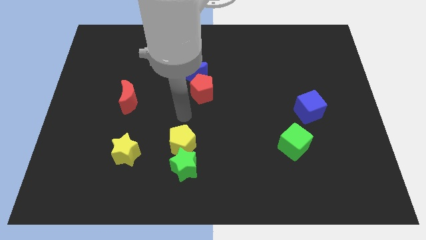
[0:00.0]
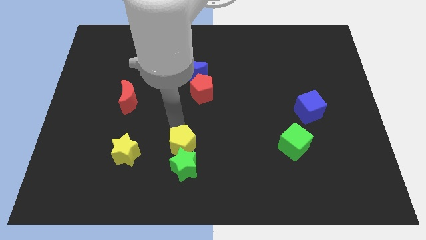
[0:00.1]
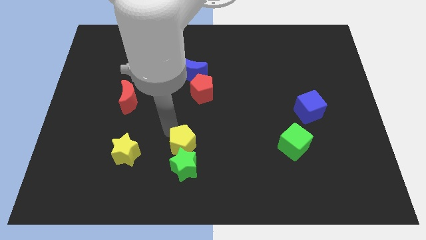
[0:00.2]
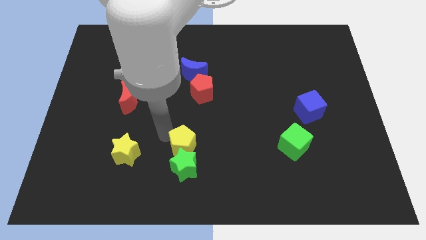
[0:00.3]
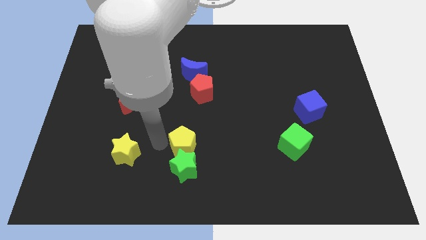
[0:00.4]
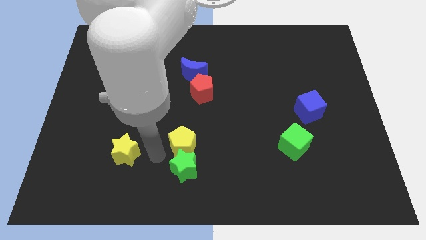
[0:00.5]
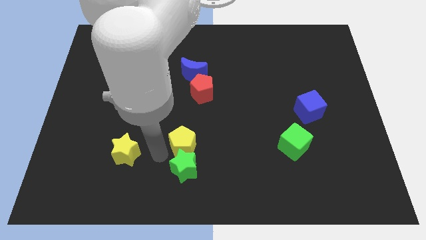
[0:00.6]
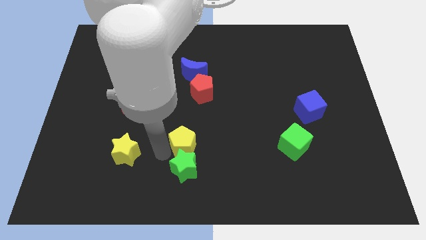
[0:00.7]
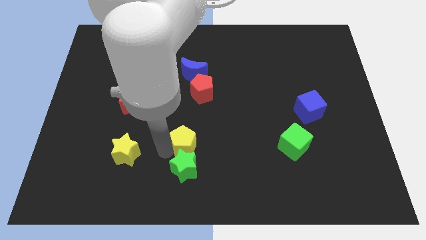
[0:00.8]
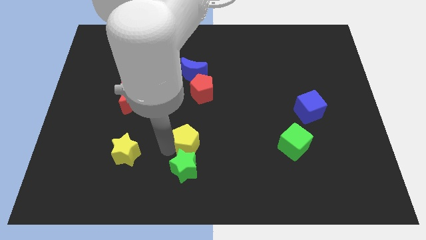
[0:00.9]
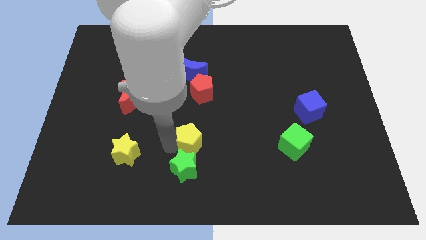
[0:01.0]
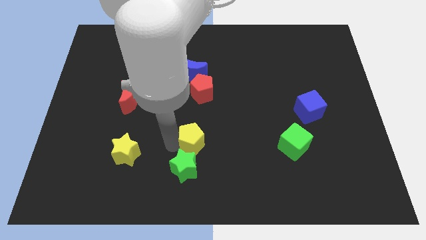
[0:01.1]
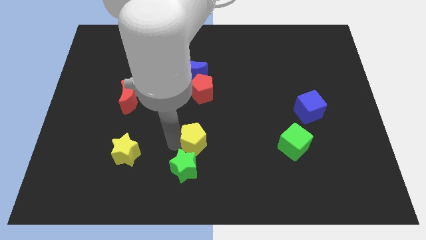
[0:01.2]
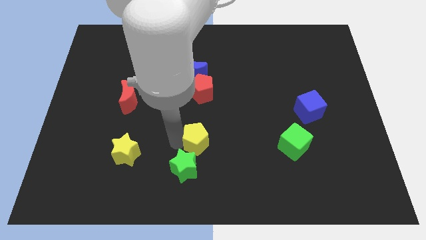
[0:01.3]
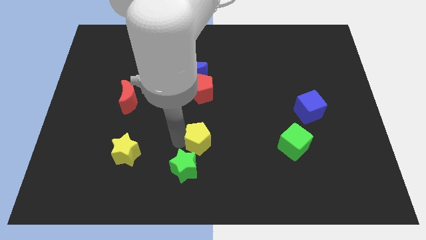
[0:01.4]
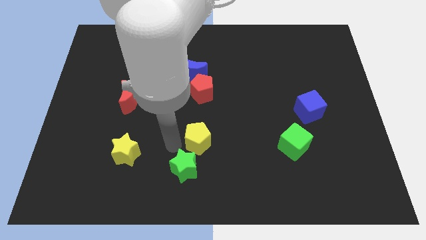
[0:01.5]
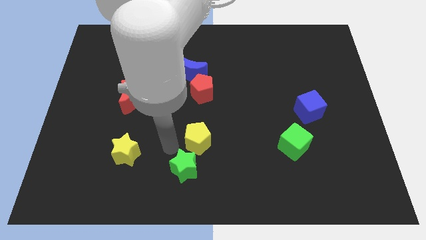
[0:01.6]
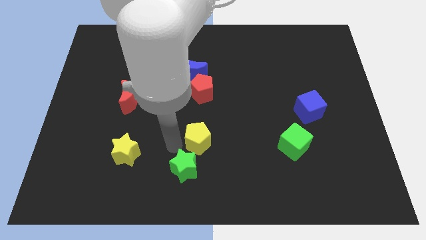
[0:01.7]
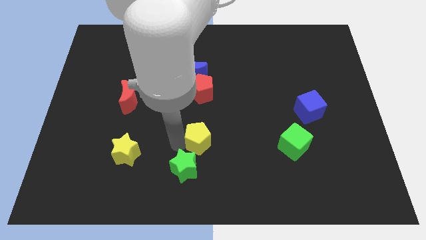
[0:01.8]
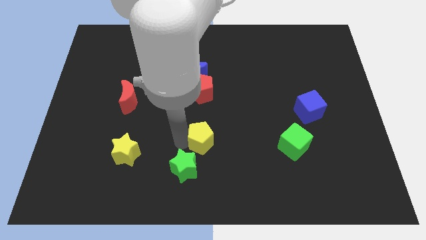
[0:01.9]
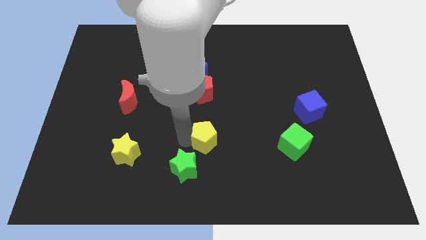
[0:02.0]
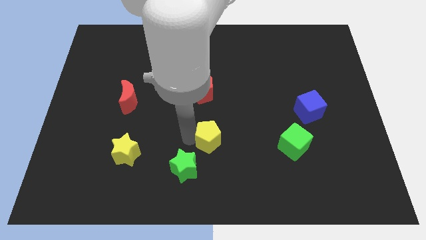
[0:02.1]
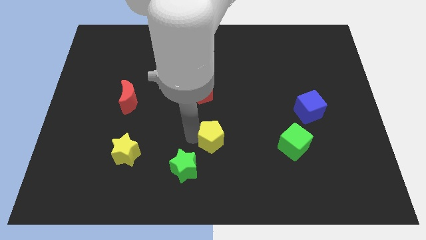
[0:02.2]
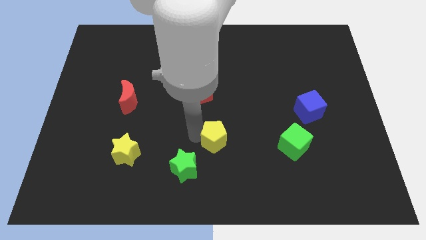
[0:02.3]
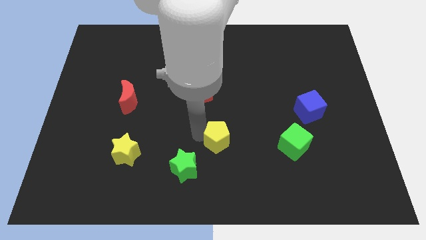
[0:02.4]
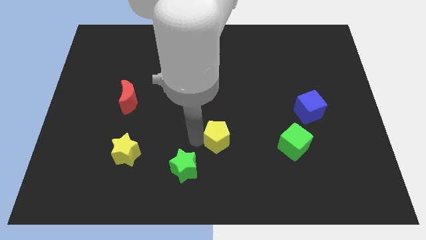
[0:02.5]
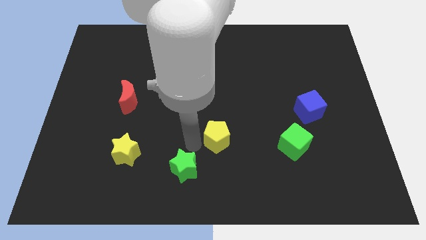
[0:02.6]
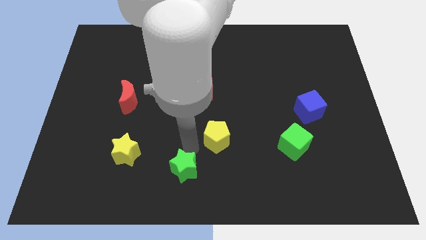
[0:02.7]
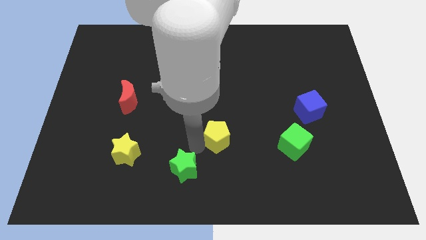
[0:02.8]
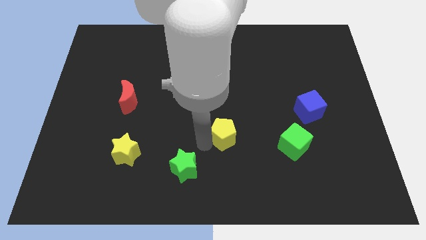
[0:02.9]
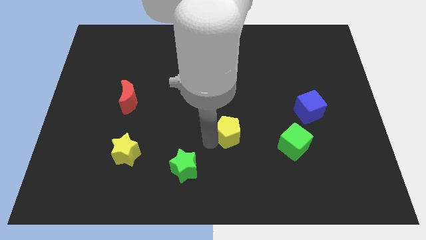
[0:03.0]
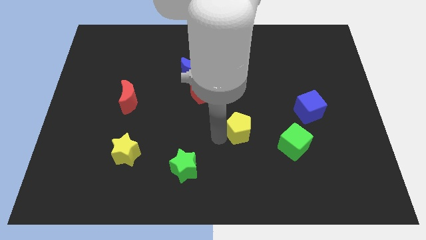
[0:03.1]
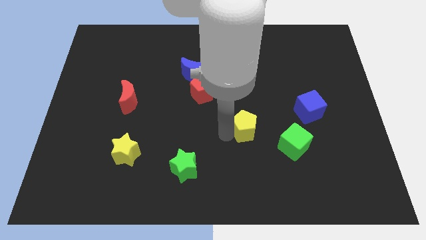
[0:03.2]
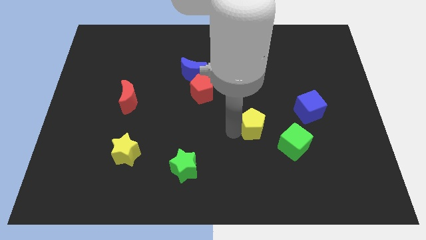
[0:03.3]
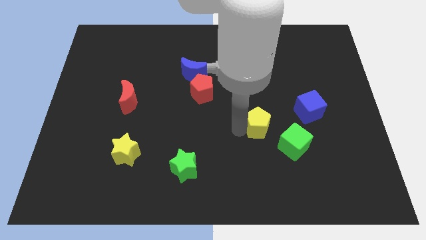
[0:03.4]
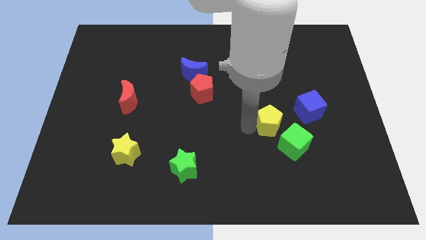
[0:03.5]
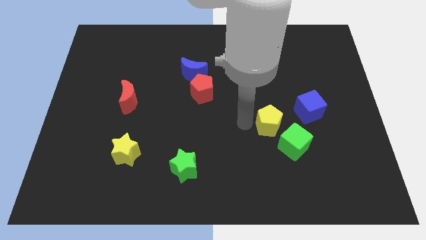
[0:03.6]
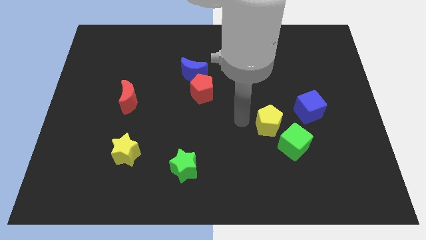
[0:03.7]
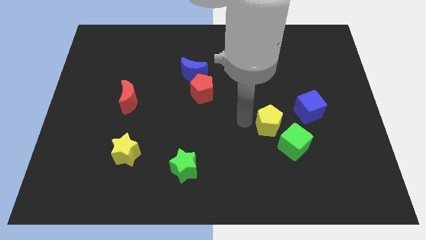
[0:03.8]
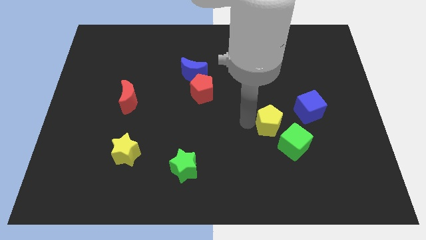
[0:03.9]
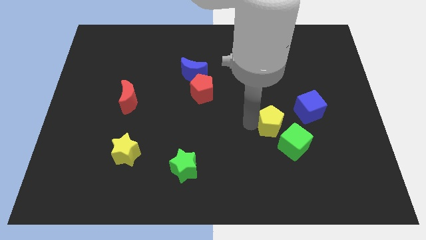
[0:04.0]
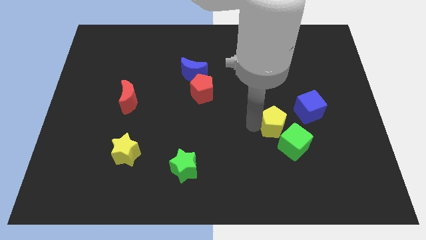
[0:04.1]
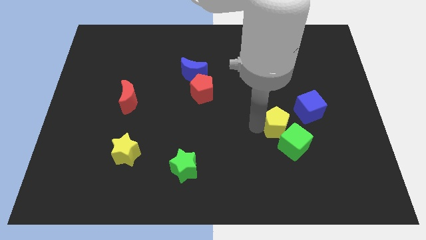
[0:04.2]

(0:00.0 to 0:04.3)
move the yellow pentagon right

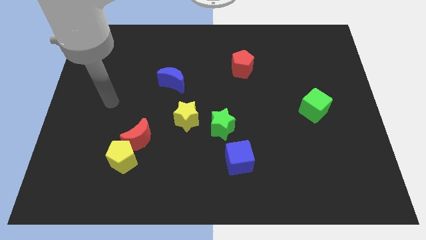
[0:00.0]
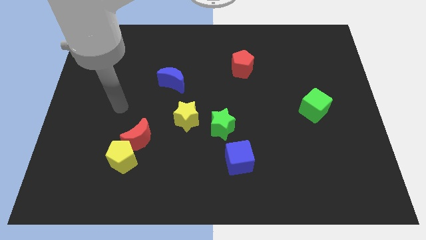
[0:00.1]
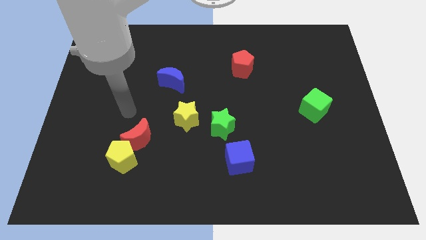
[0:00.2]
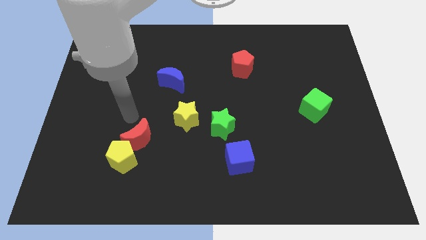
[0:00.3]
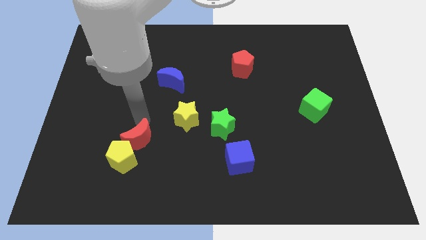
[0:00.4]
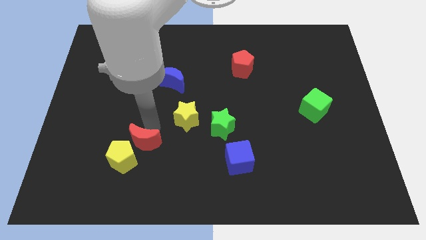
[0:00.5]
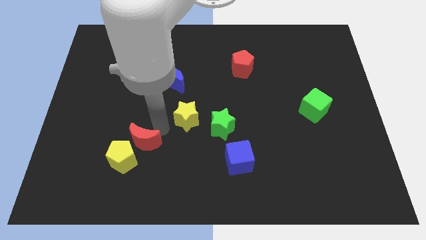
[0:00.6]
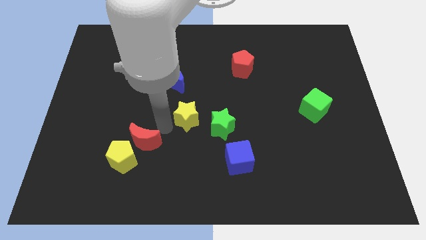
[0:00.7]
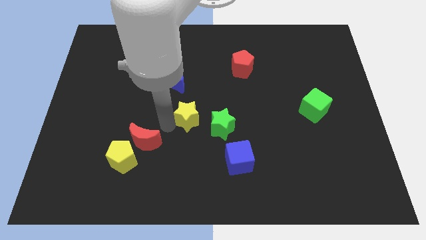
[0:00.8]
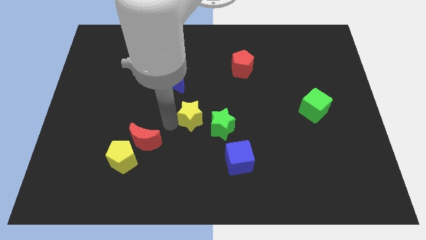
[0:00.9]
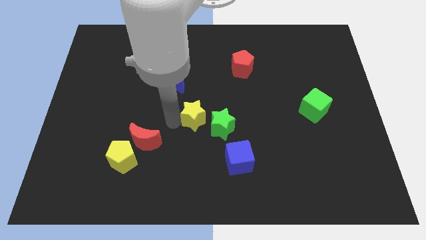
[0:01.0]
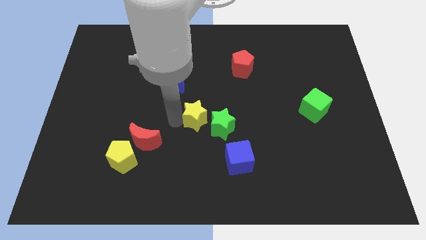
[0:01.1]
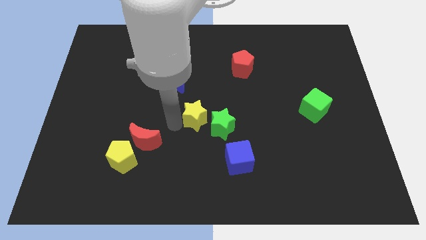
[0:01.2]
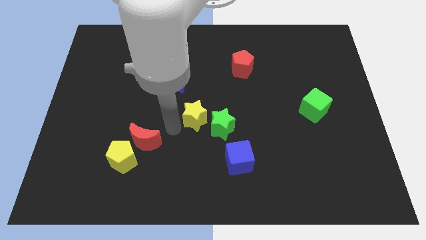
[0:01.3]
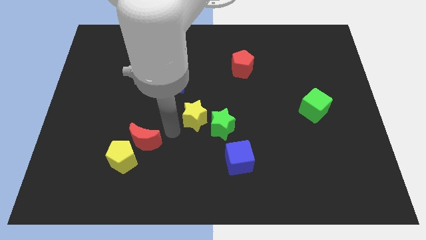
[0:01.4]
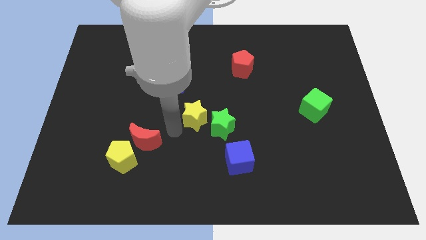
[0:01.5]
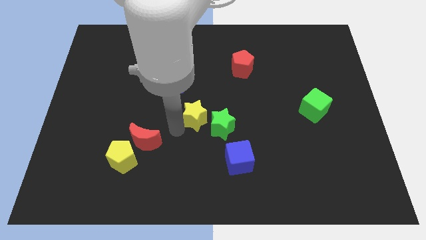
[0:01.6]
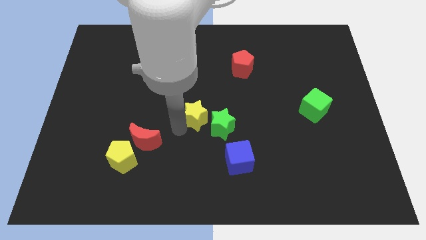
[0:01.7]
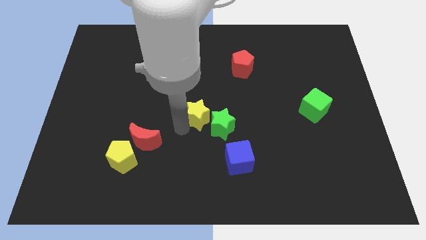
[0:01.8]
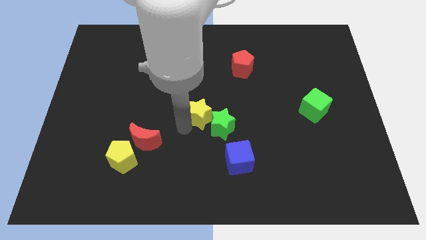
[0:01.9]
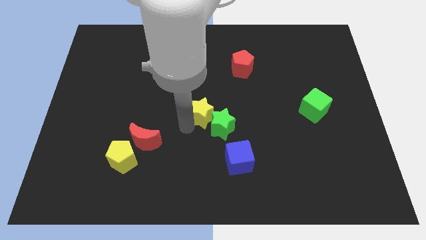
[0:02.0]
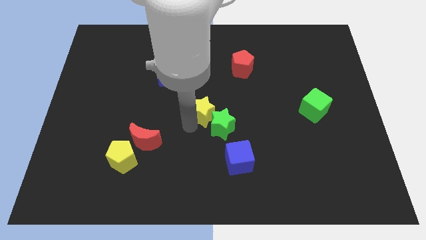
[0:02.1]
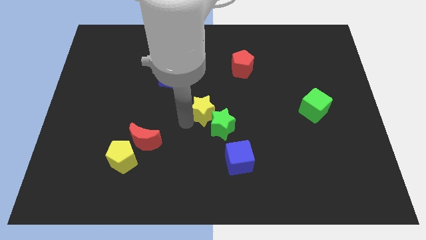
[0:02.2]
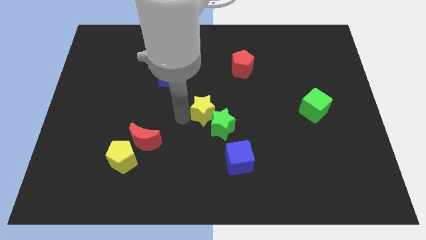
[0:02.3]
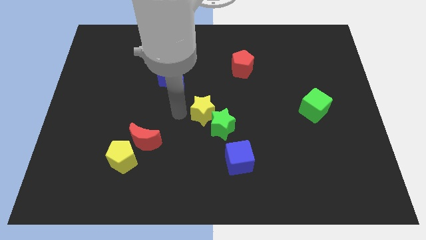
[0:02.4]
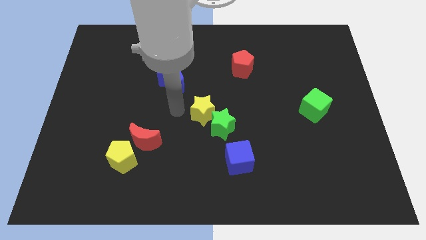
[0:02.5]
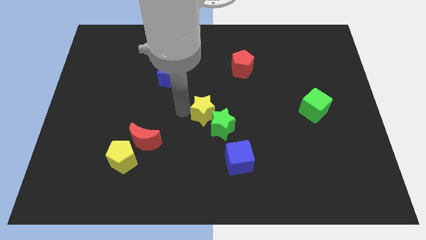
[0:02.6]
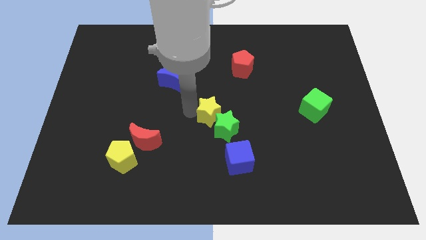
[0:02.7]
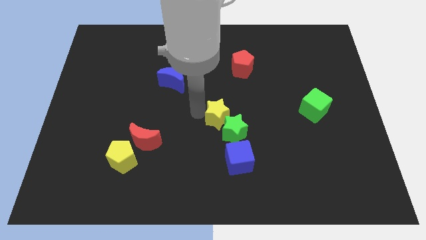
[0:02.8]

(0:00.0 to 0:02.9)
slightly slide the yellow star to the right

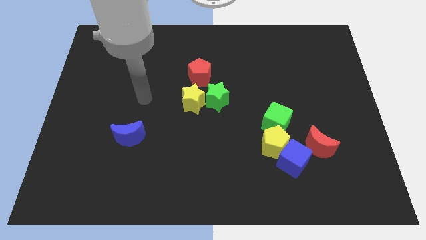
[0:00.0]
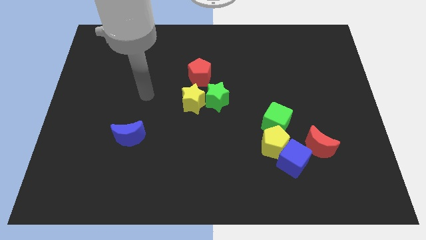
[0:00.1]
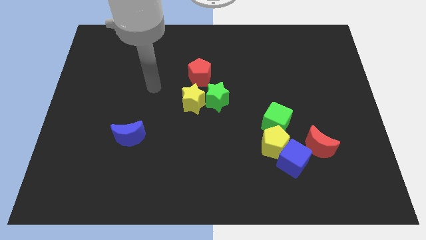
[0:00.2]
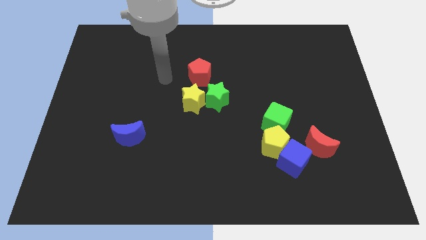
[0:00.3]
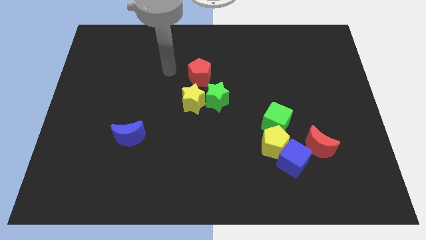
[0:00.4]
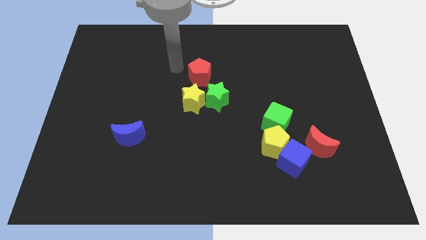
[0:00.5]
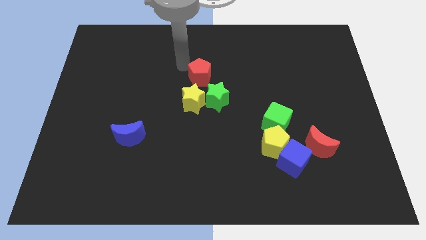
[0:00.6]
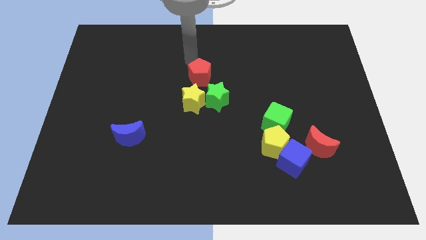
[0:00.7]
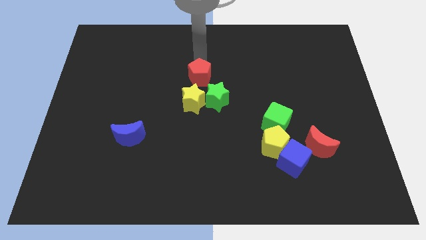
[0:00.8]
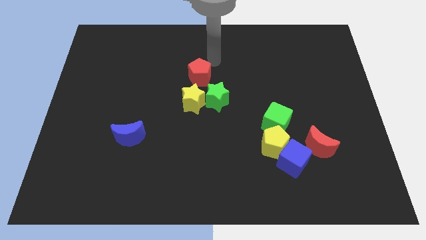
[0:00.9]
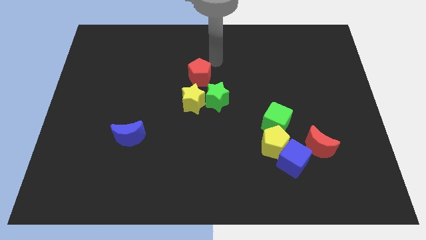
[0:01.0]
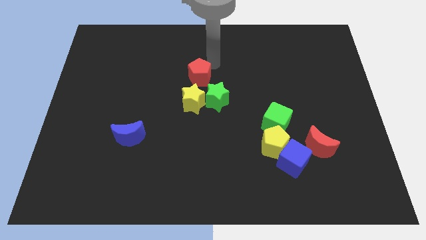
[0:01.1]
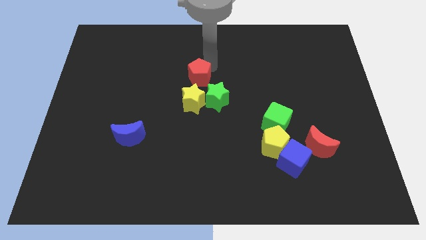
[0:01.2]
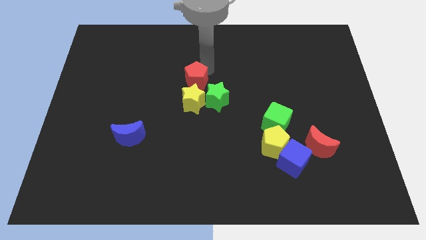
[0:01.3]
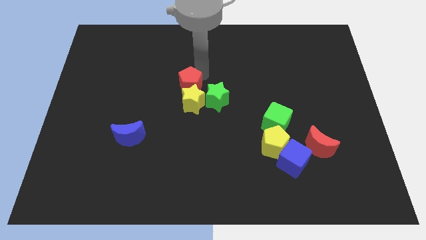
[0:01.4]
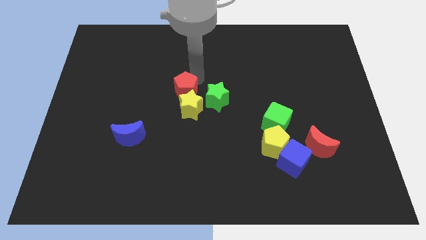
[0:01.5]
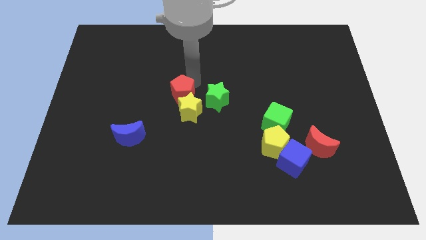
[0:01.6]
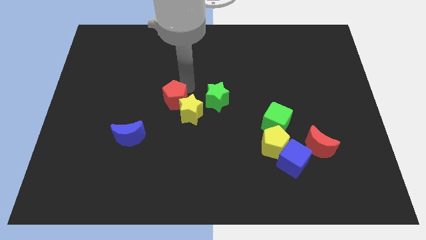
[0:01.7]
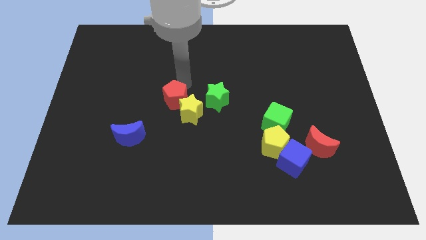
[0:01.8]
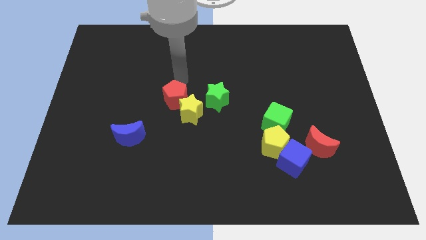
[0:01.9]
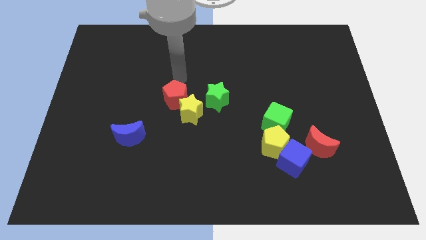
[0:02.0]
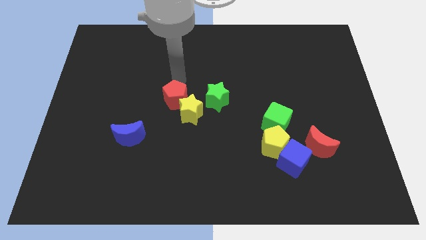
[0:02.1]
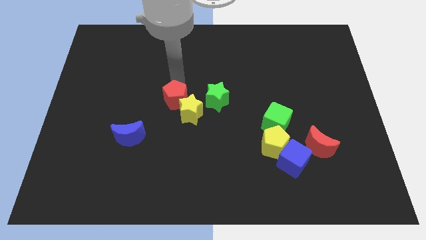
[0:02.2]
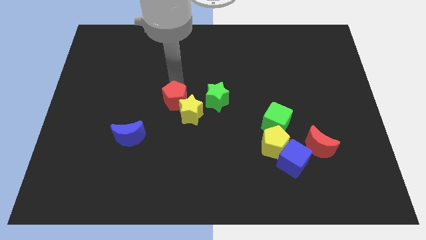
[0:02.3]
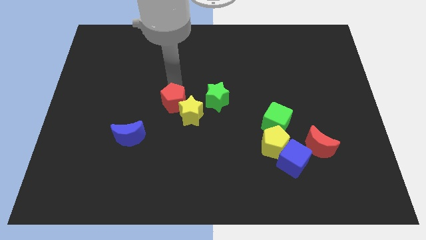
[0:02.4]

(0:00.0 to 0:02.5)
slightly move the red pentagon down
